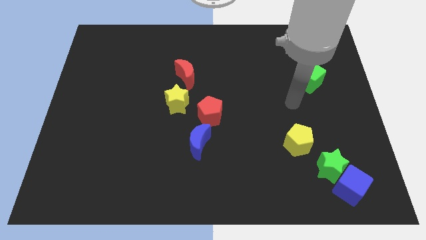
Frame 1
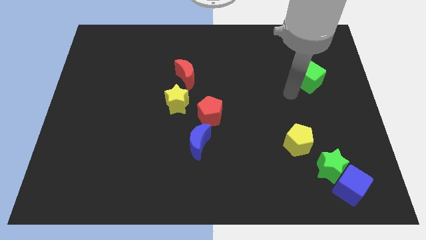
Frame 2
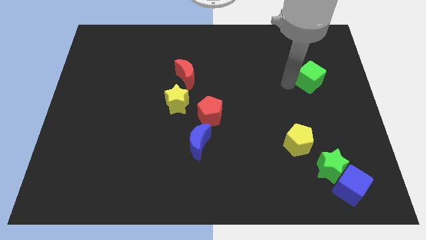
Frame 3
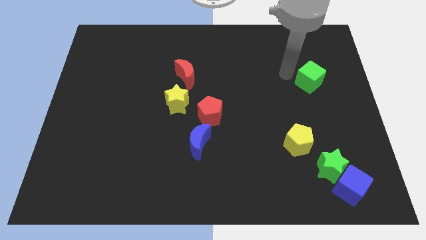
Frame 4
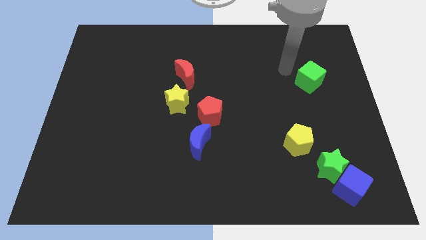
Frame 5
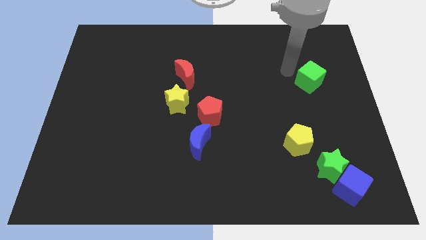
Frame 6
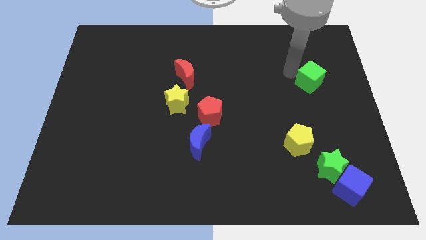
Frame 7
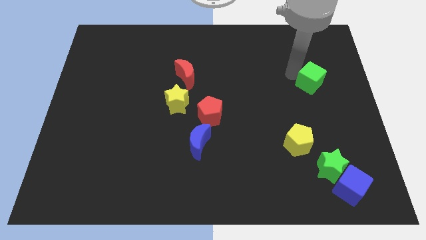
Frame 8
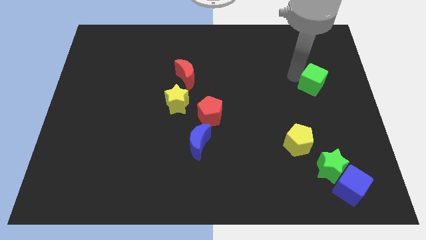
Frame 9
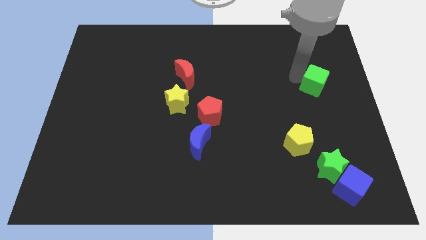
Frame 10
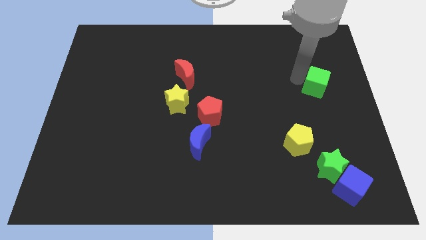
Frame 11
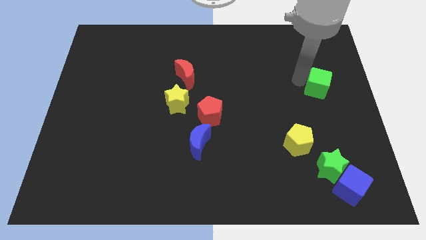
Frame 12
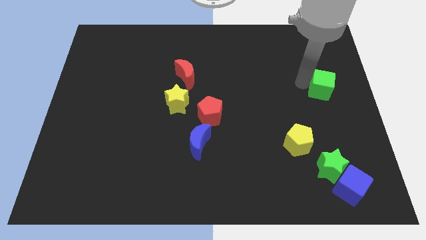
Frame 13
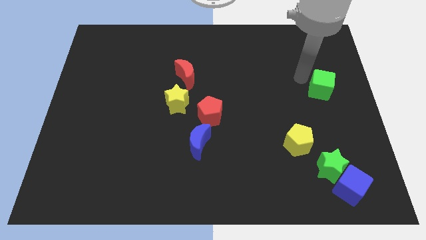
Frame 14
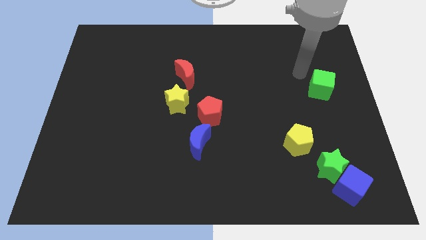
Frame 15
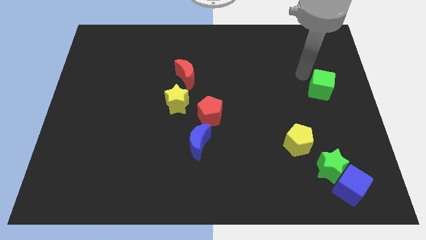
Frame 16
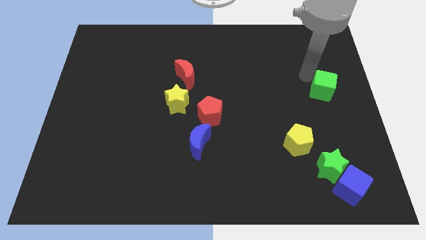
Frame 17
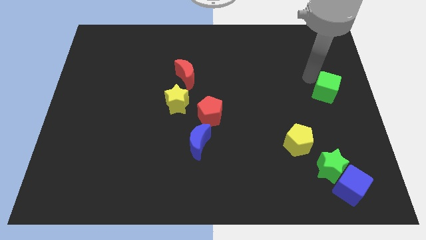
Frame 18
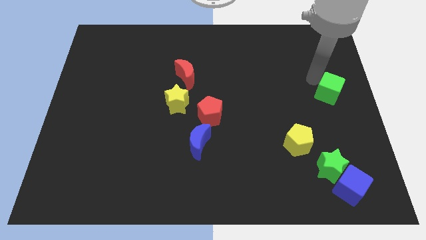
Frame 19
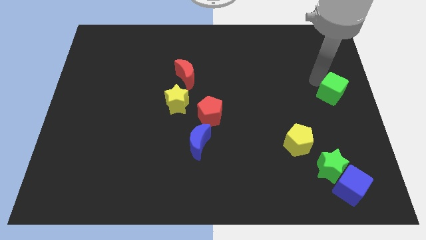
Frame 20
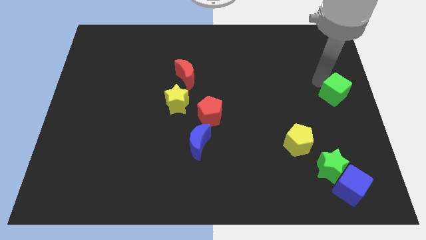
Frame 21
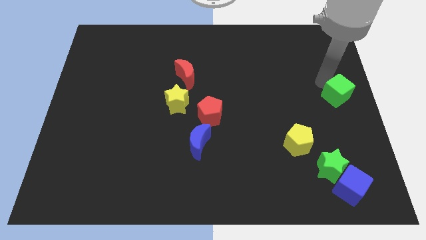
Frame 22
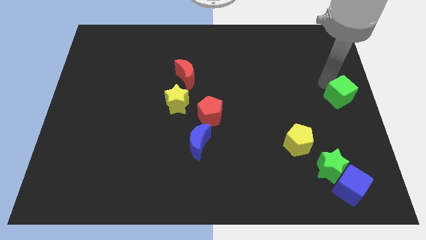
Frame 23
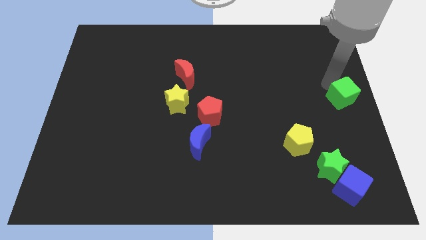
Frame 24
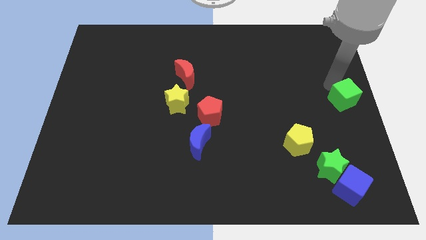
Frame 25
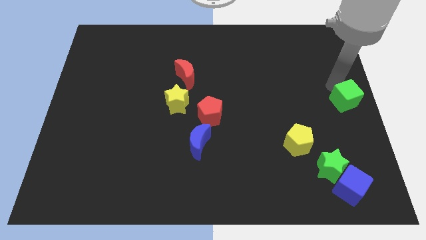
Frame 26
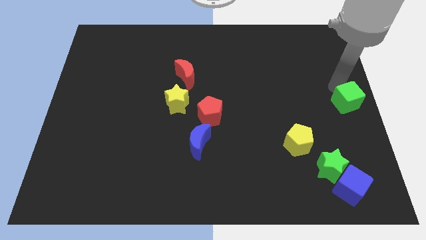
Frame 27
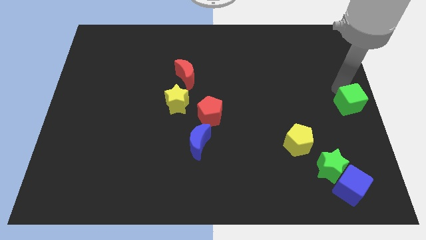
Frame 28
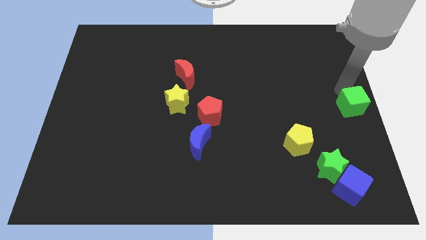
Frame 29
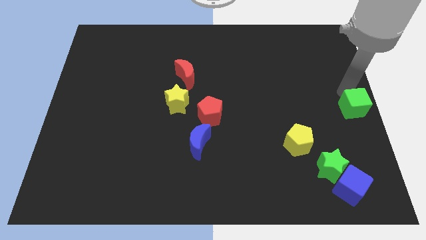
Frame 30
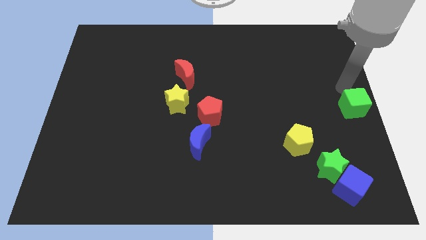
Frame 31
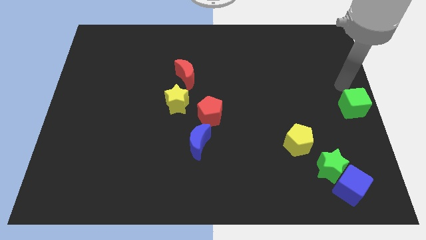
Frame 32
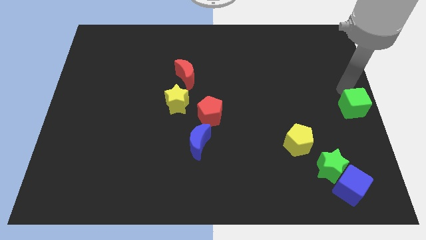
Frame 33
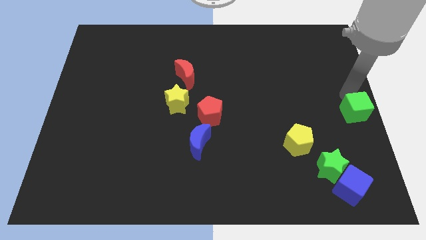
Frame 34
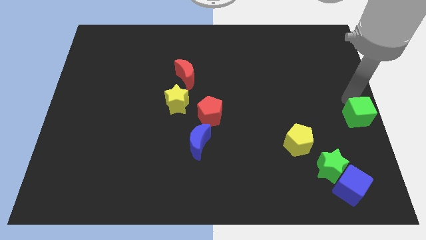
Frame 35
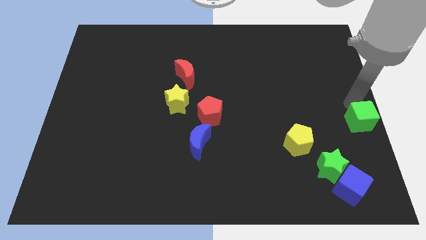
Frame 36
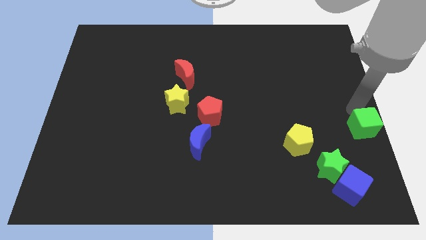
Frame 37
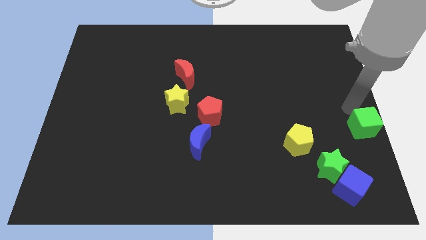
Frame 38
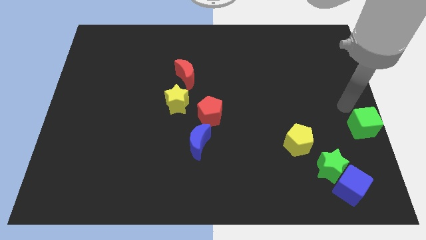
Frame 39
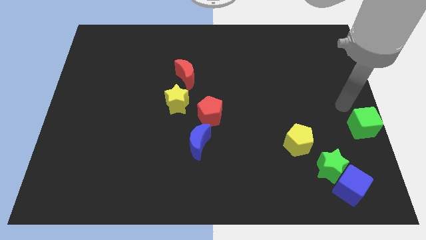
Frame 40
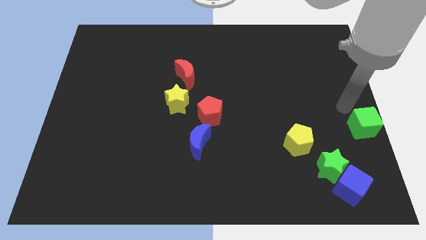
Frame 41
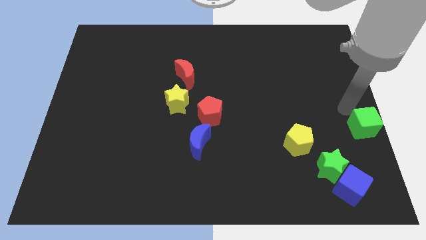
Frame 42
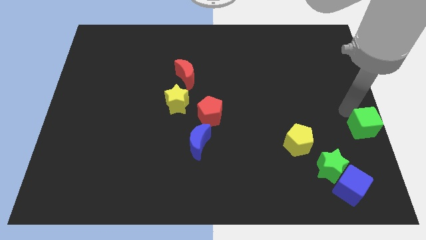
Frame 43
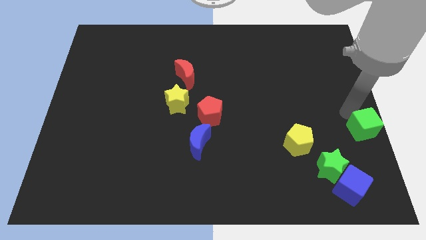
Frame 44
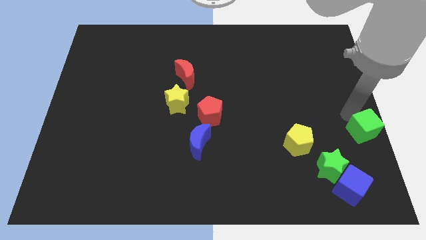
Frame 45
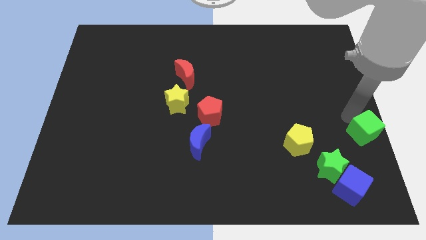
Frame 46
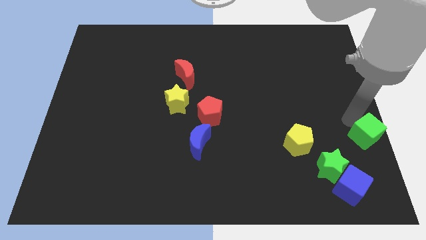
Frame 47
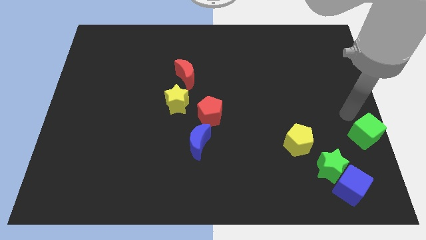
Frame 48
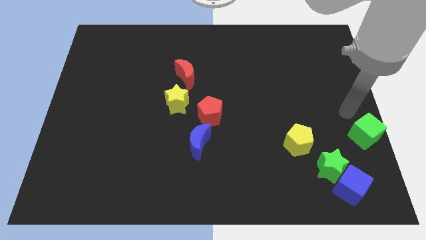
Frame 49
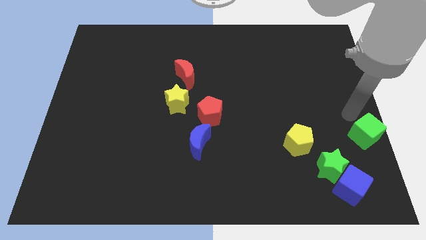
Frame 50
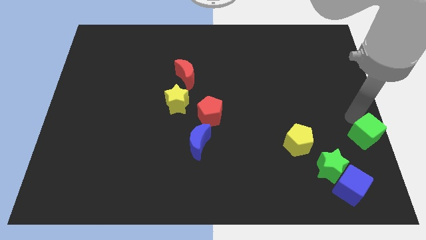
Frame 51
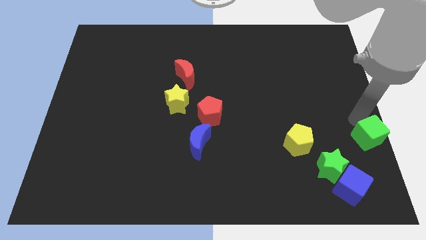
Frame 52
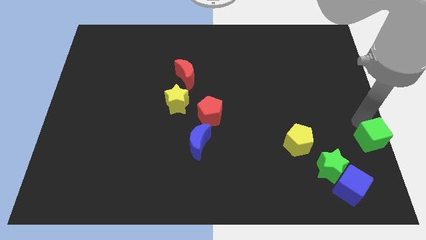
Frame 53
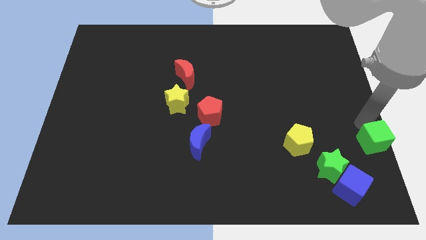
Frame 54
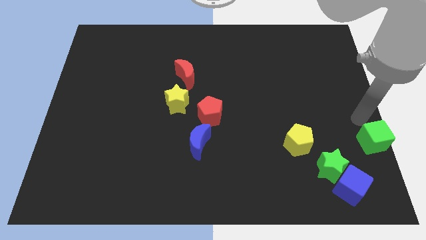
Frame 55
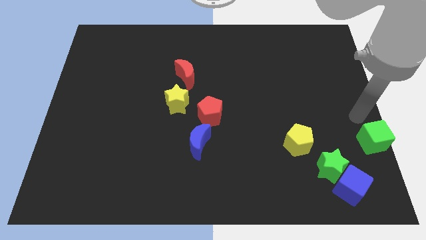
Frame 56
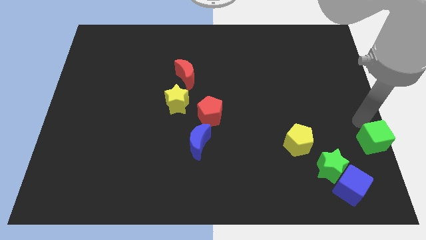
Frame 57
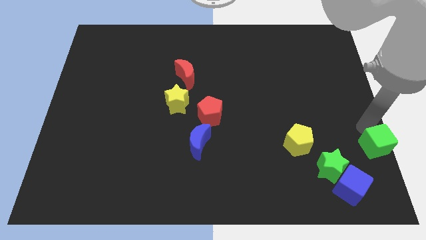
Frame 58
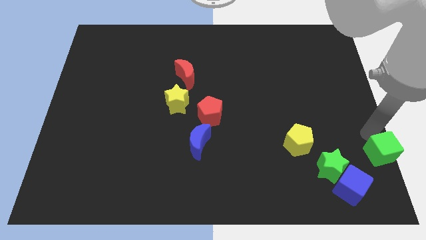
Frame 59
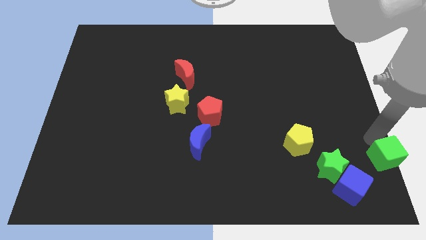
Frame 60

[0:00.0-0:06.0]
slide the green cube to the bottom right corner

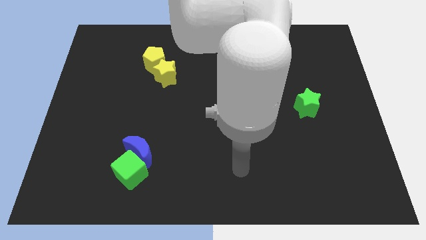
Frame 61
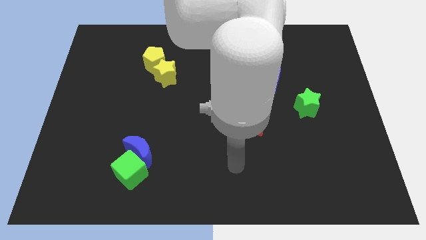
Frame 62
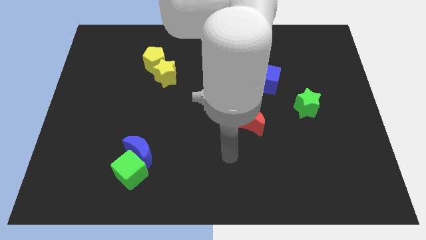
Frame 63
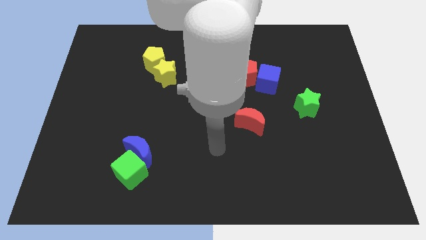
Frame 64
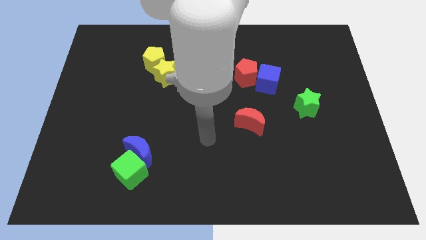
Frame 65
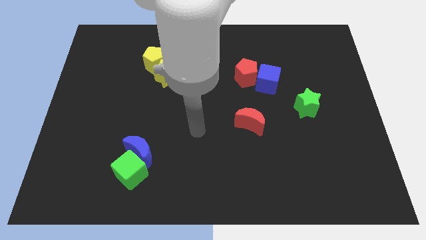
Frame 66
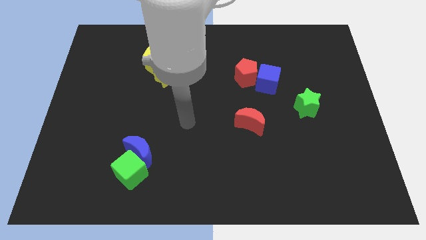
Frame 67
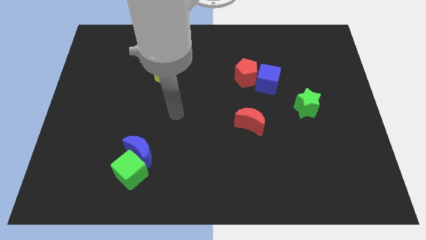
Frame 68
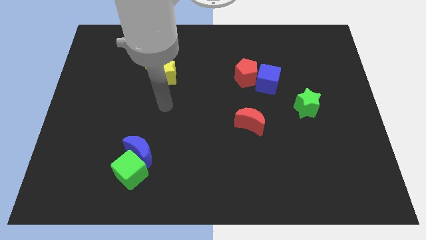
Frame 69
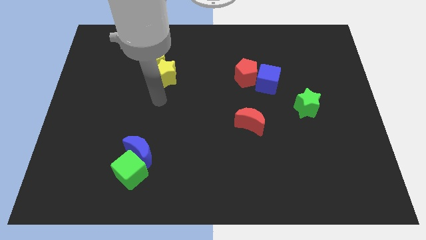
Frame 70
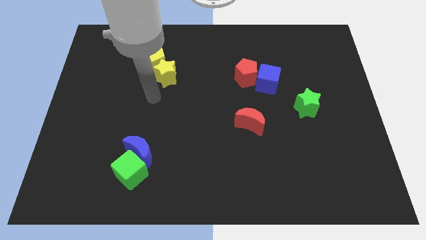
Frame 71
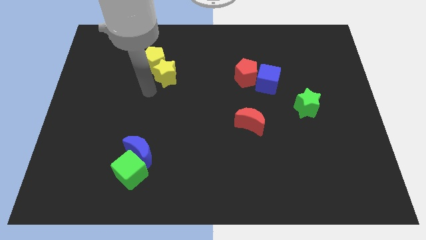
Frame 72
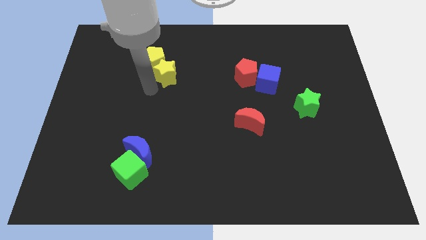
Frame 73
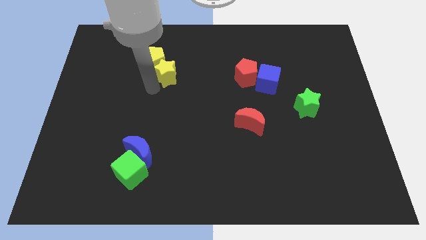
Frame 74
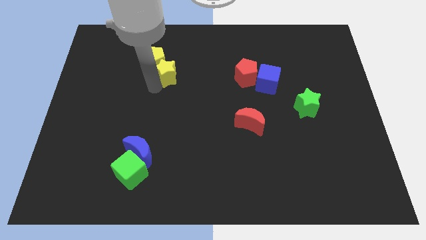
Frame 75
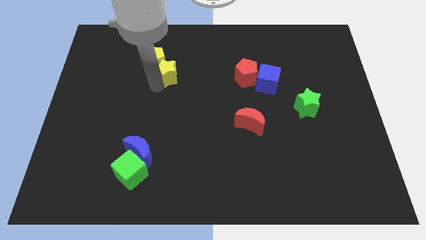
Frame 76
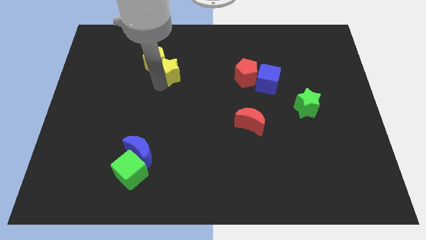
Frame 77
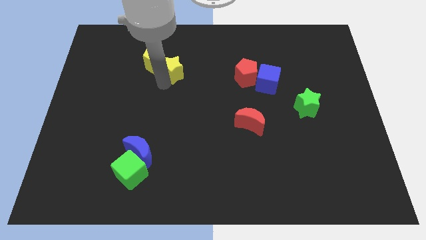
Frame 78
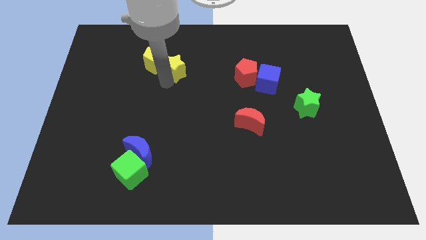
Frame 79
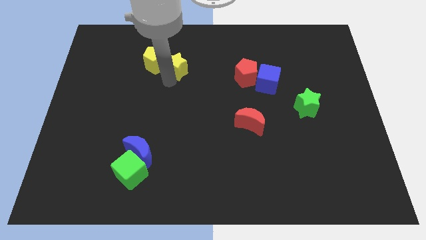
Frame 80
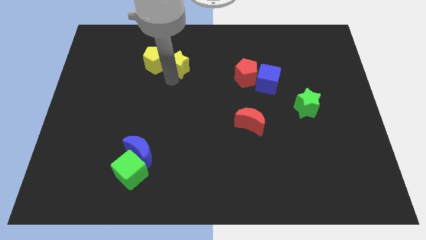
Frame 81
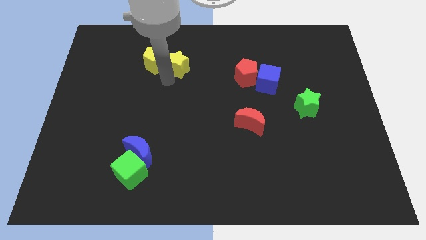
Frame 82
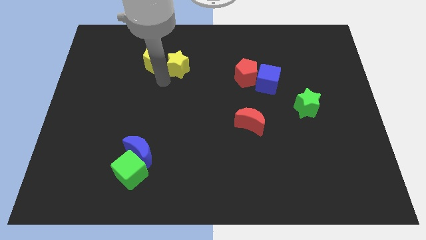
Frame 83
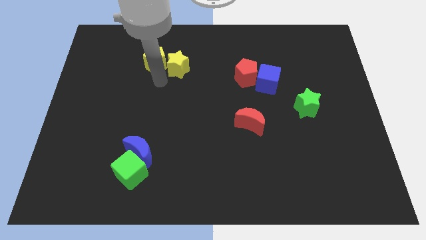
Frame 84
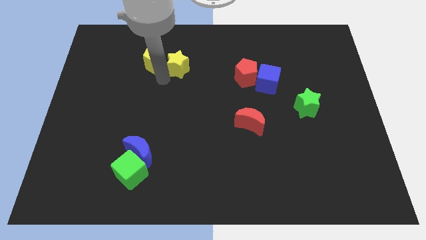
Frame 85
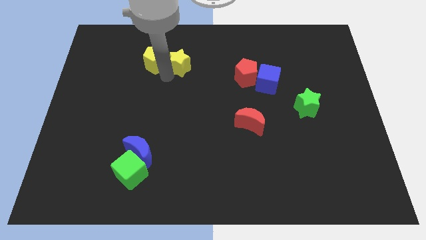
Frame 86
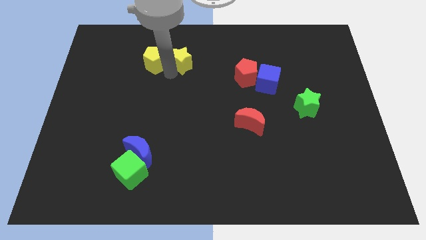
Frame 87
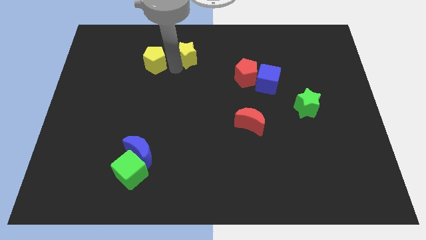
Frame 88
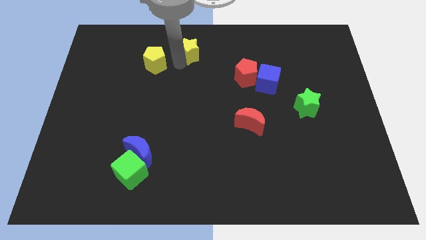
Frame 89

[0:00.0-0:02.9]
move the yellow star to the top
